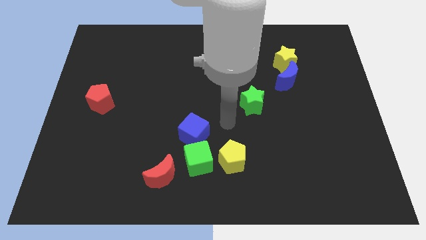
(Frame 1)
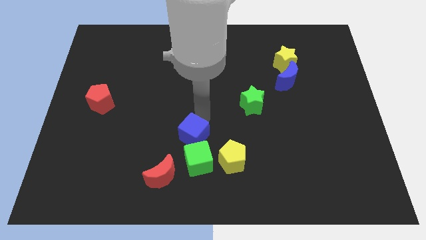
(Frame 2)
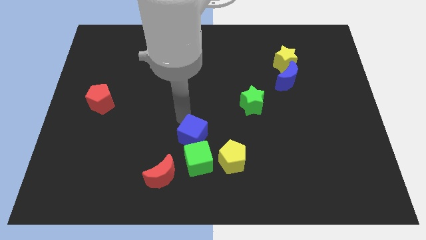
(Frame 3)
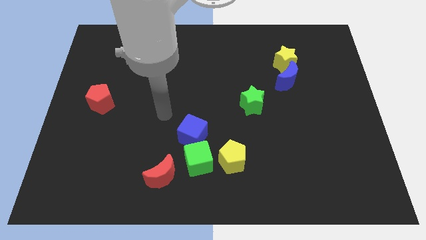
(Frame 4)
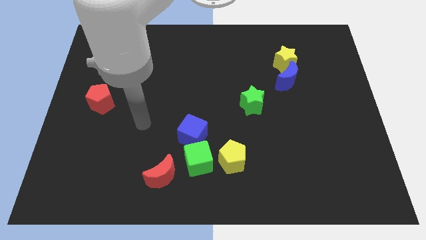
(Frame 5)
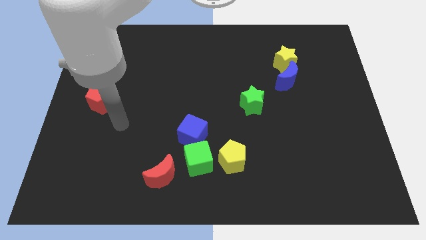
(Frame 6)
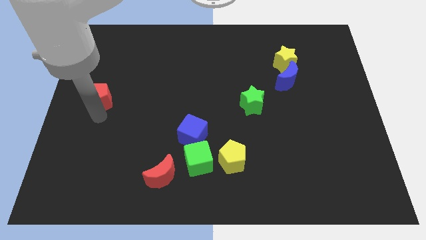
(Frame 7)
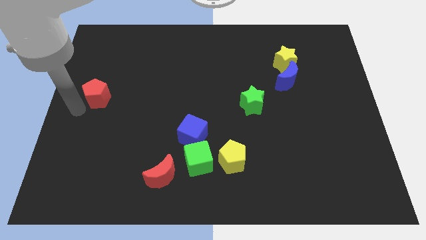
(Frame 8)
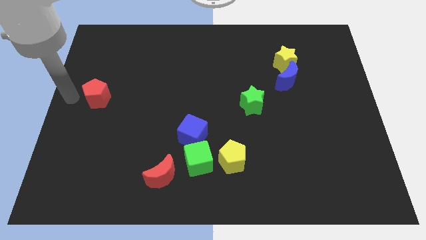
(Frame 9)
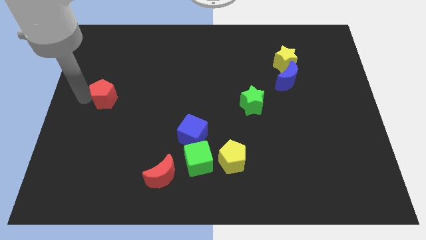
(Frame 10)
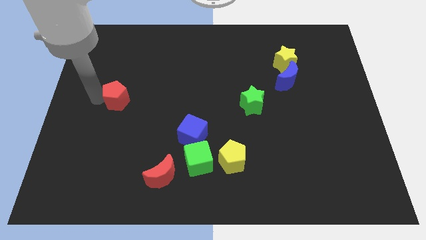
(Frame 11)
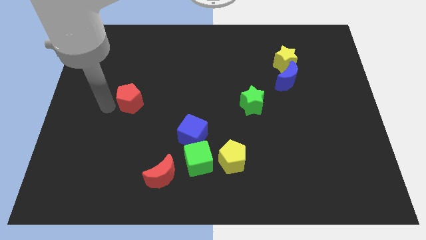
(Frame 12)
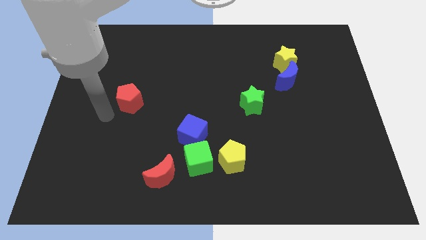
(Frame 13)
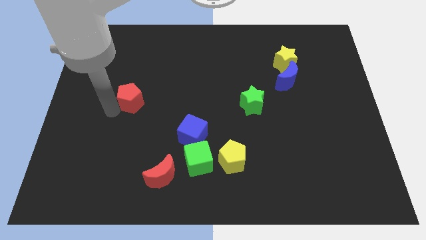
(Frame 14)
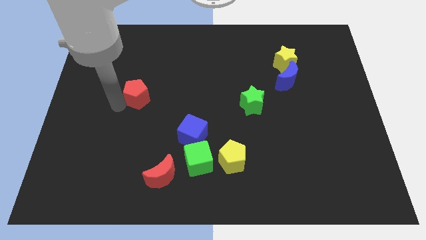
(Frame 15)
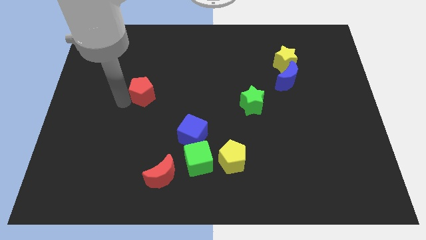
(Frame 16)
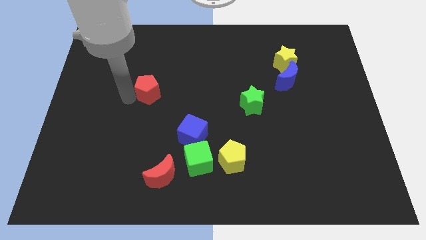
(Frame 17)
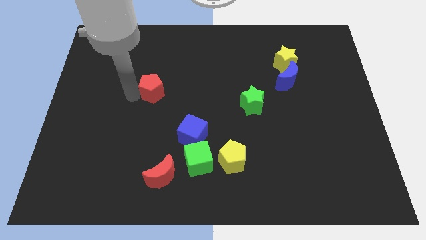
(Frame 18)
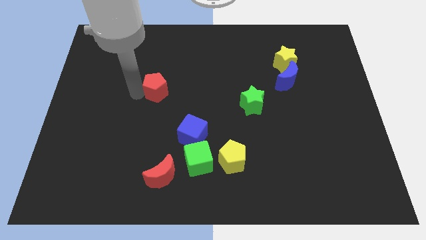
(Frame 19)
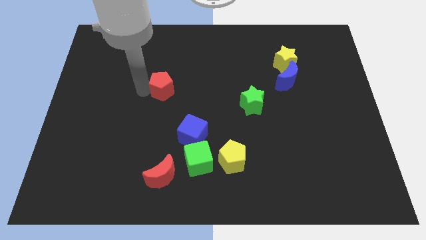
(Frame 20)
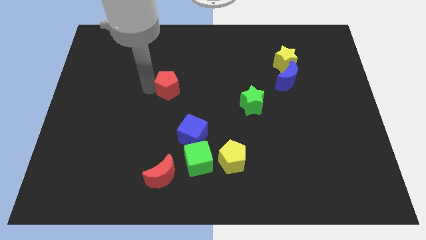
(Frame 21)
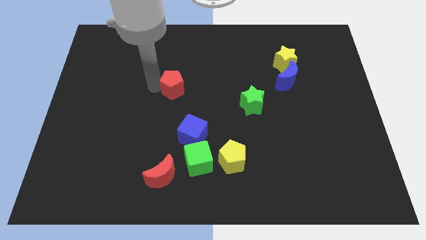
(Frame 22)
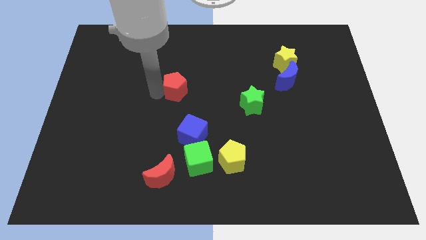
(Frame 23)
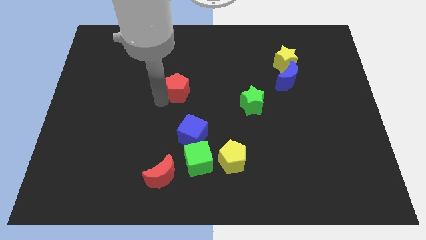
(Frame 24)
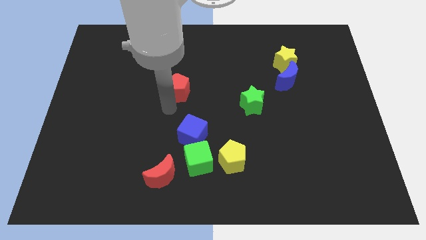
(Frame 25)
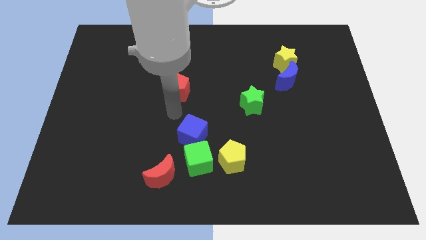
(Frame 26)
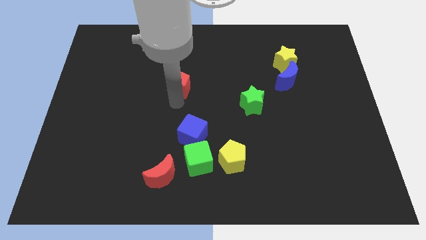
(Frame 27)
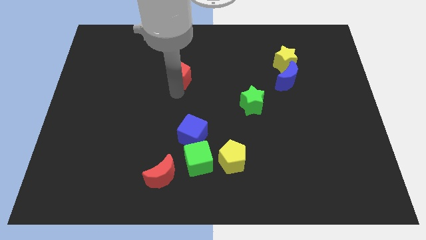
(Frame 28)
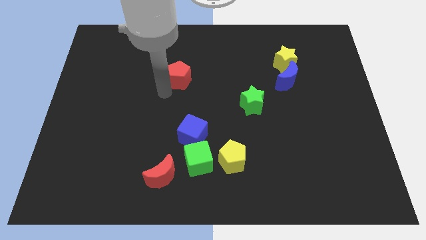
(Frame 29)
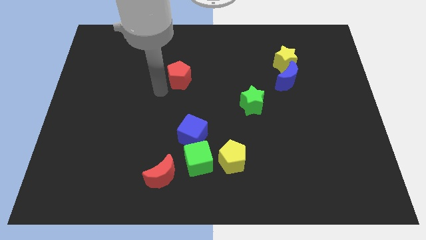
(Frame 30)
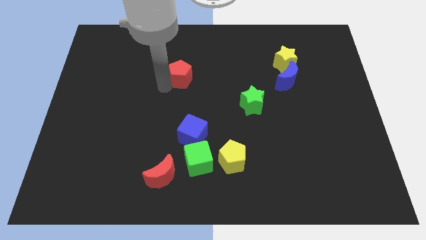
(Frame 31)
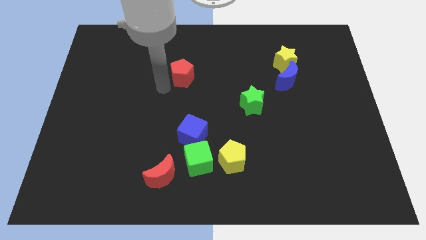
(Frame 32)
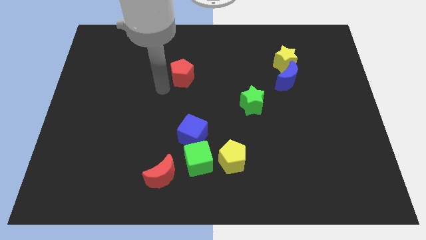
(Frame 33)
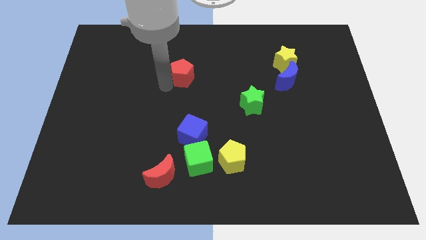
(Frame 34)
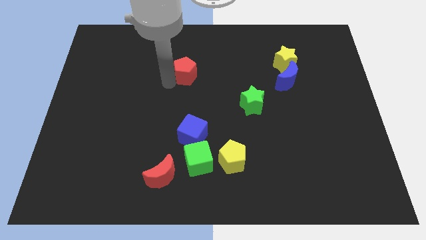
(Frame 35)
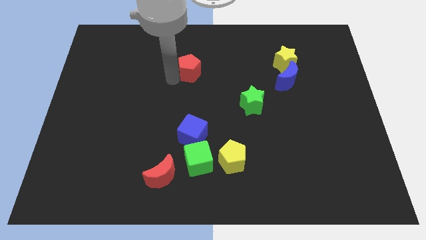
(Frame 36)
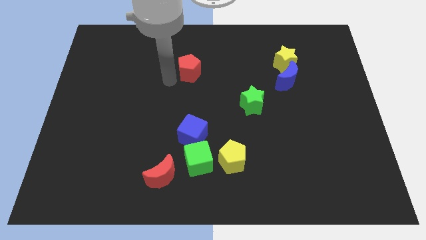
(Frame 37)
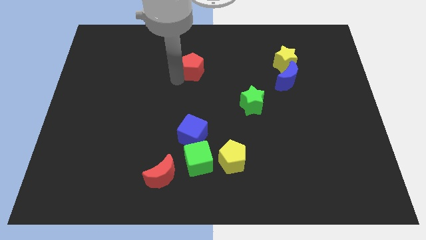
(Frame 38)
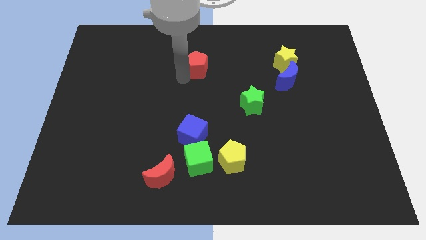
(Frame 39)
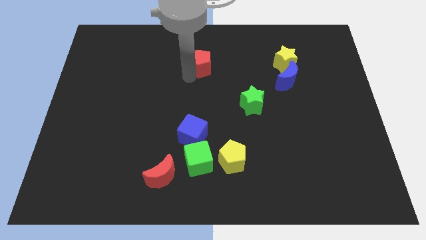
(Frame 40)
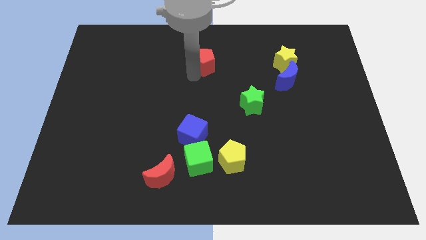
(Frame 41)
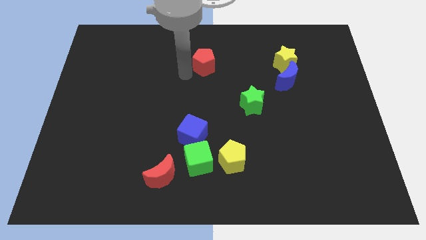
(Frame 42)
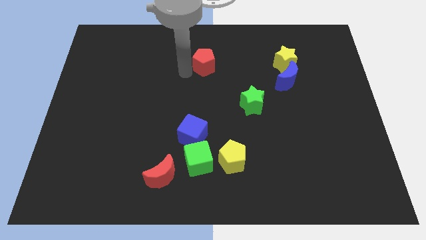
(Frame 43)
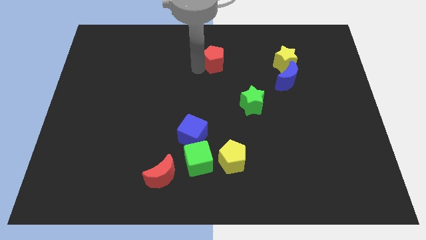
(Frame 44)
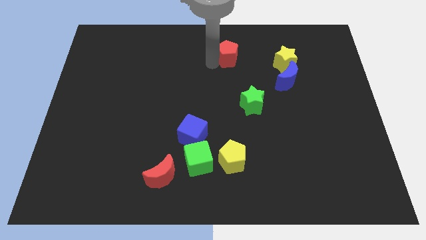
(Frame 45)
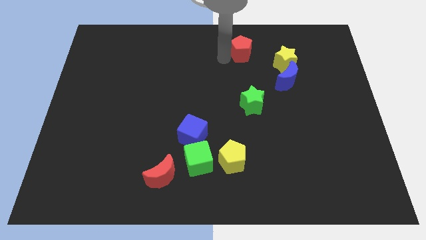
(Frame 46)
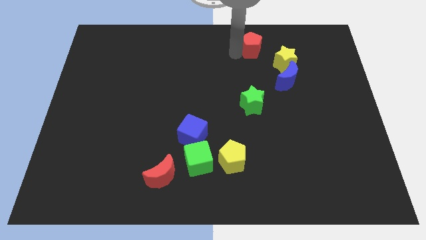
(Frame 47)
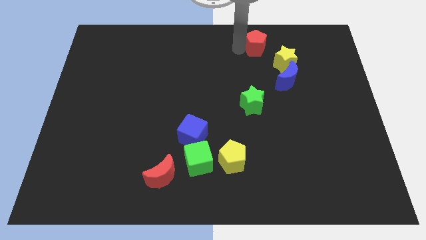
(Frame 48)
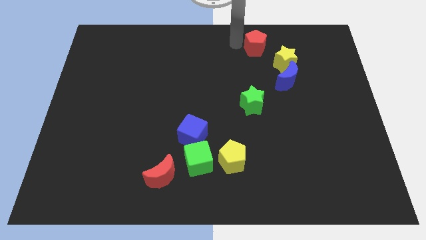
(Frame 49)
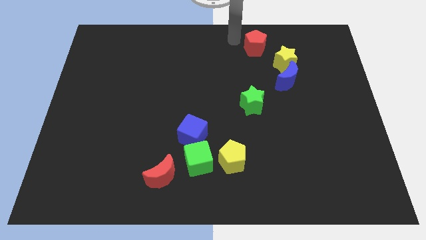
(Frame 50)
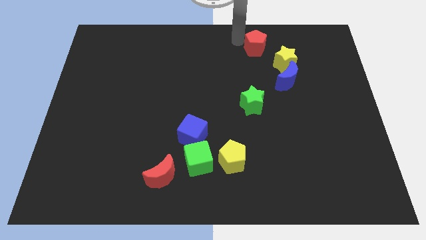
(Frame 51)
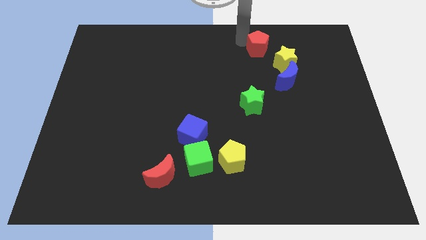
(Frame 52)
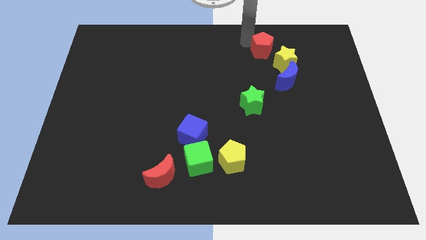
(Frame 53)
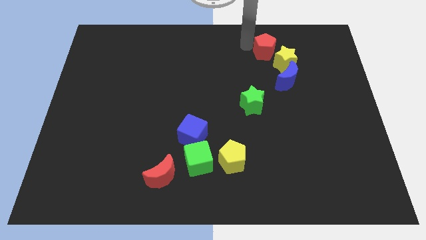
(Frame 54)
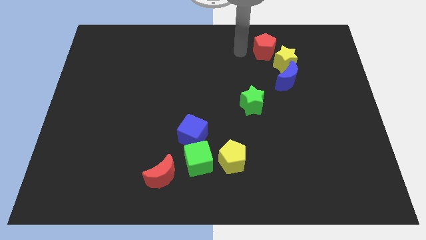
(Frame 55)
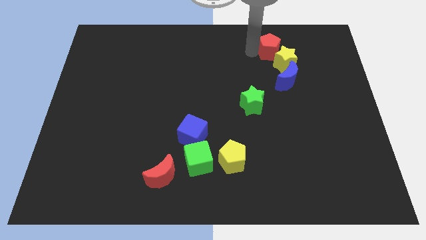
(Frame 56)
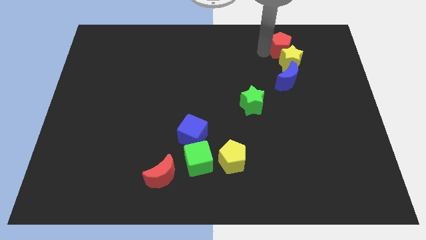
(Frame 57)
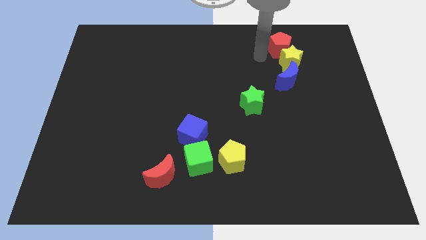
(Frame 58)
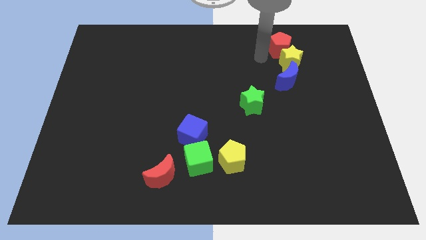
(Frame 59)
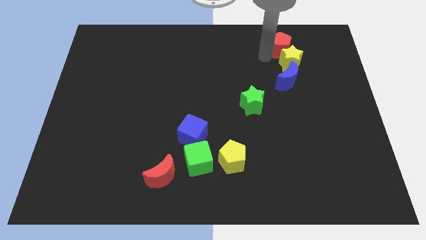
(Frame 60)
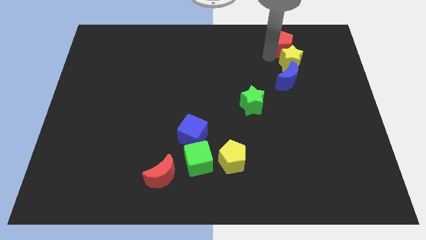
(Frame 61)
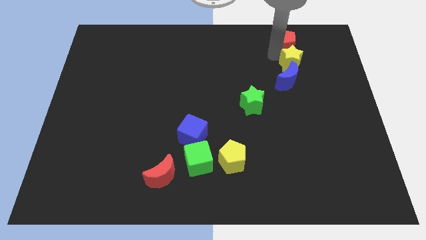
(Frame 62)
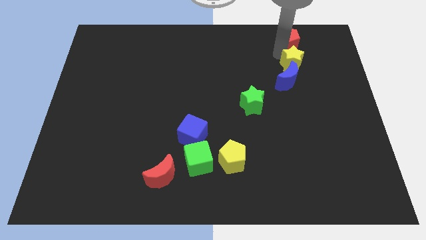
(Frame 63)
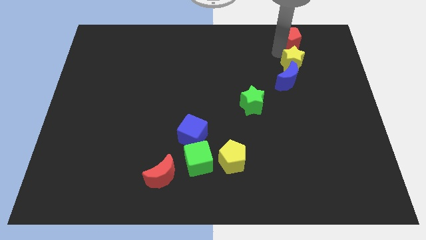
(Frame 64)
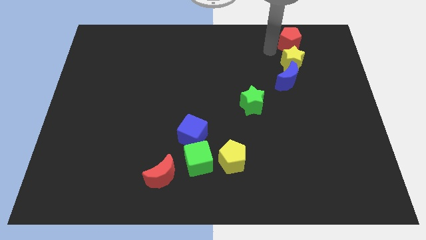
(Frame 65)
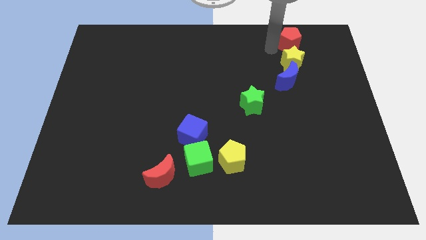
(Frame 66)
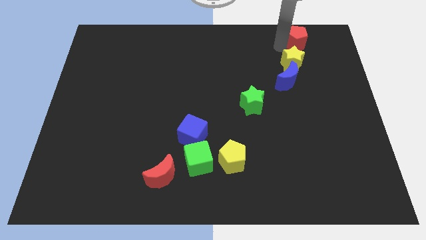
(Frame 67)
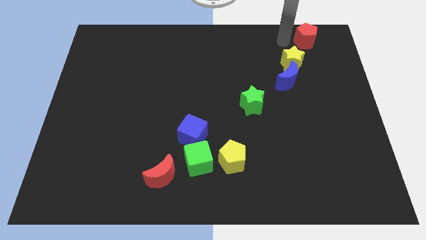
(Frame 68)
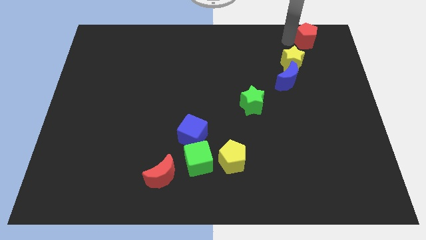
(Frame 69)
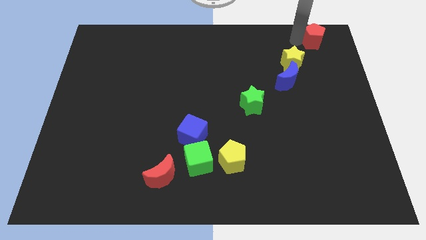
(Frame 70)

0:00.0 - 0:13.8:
push the red pentagon to the top right corner
